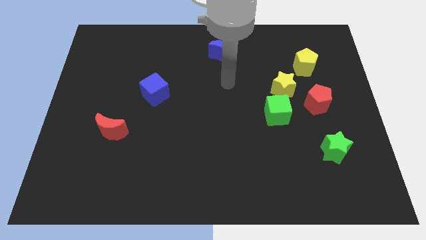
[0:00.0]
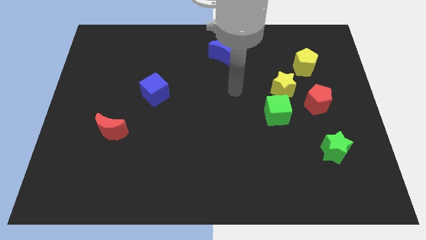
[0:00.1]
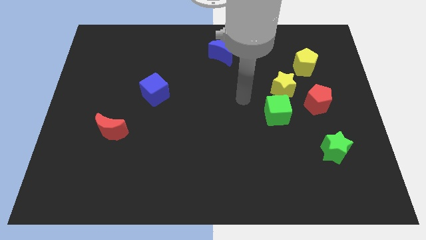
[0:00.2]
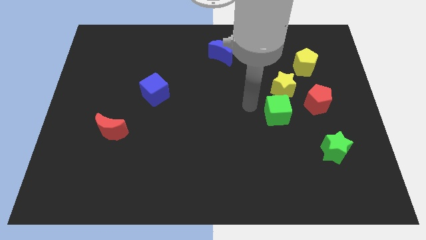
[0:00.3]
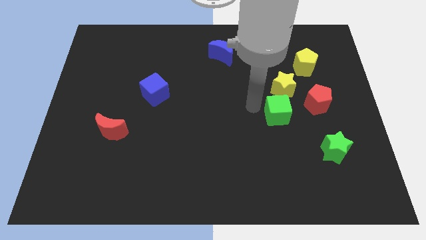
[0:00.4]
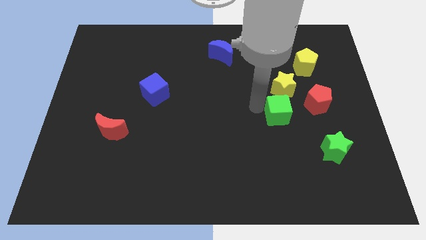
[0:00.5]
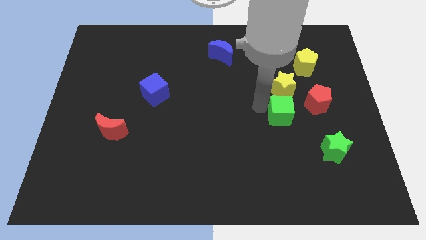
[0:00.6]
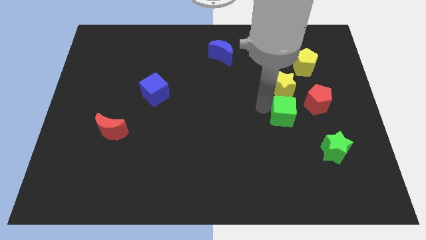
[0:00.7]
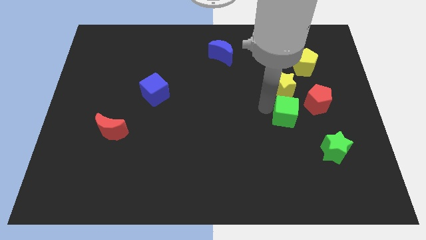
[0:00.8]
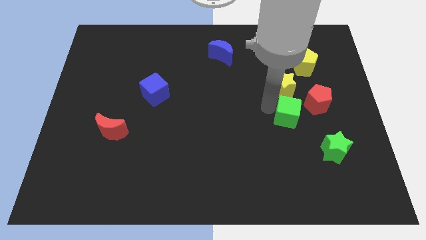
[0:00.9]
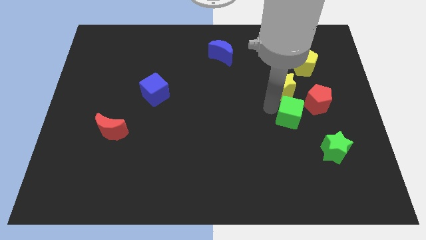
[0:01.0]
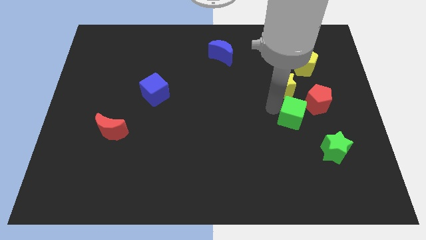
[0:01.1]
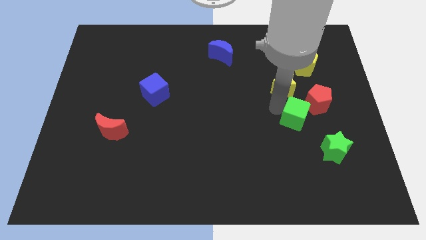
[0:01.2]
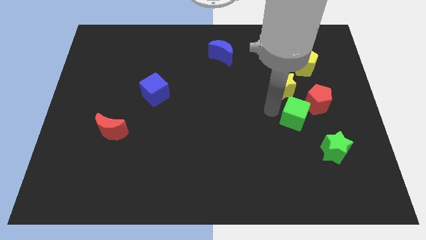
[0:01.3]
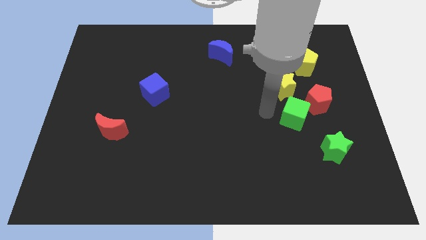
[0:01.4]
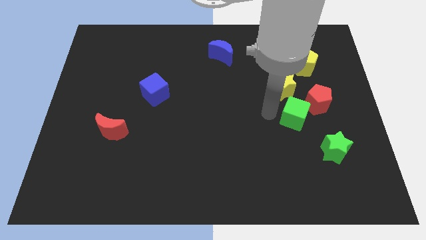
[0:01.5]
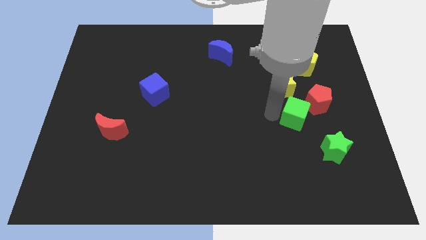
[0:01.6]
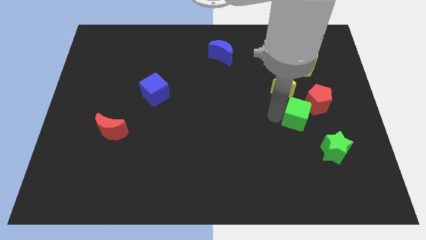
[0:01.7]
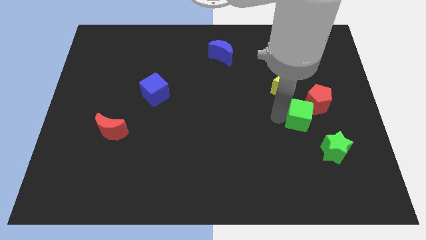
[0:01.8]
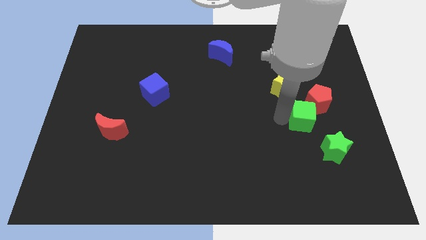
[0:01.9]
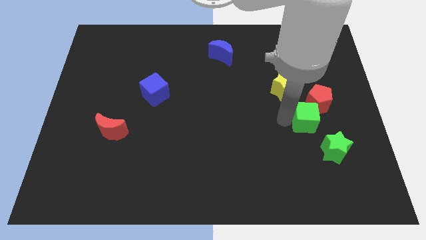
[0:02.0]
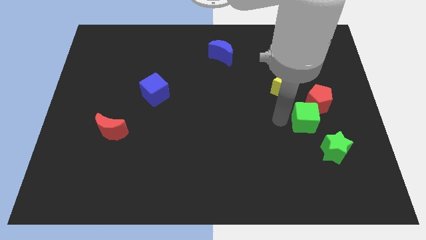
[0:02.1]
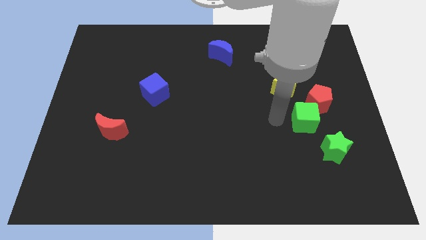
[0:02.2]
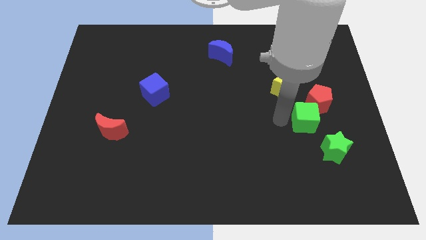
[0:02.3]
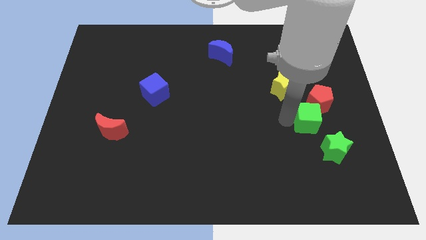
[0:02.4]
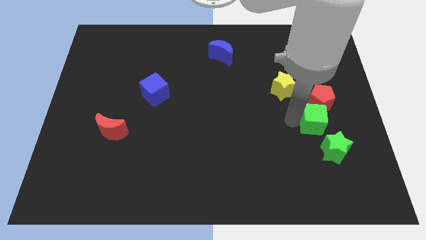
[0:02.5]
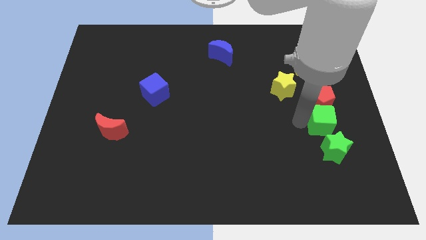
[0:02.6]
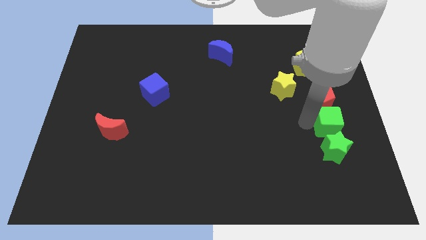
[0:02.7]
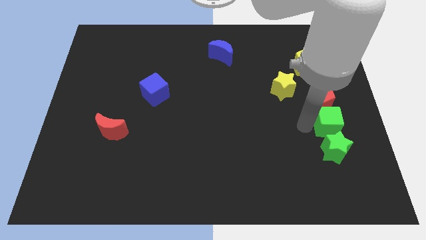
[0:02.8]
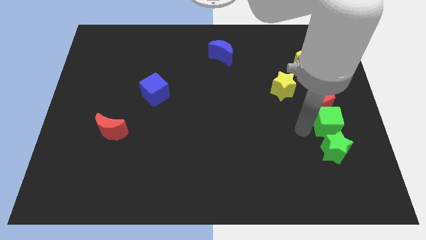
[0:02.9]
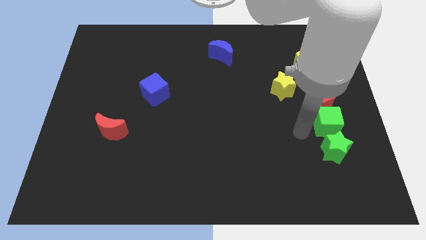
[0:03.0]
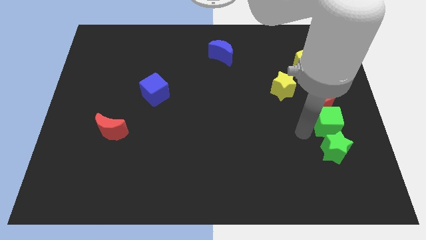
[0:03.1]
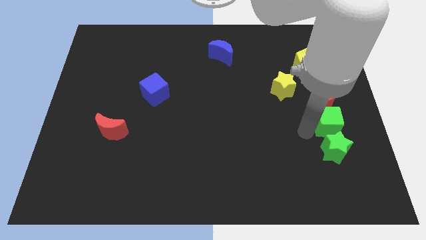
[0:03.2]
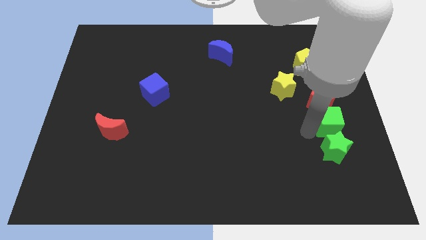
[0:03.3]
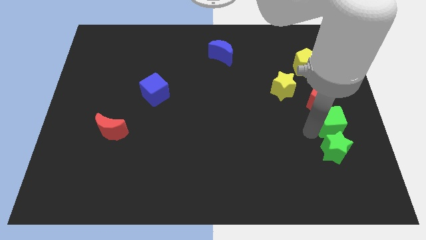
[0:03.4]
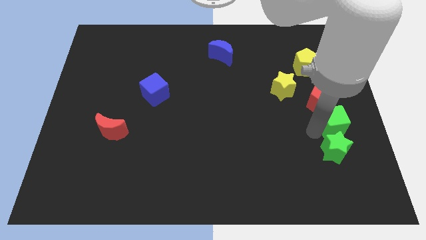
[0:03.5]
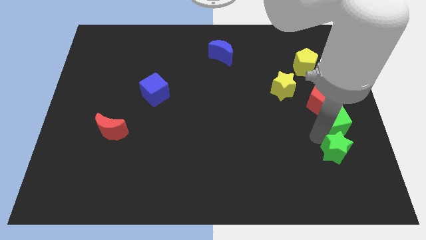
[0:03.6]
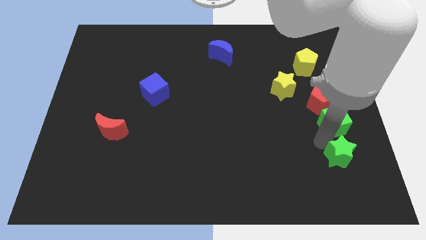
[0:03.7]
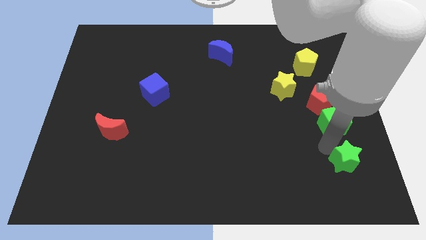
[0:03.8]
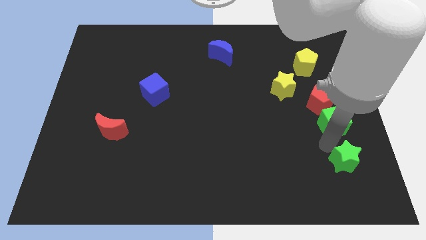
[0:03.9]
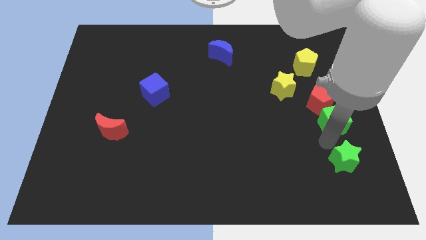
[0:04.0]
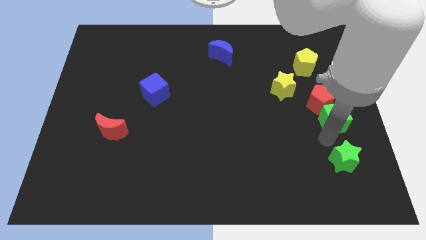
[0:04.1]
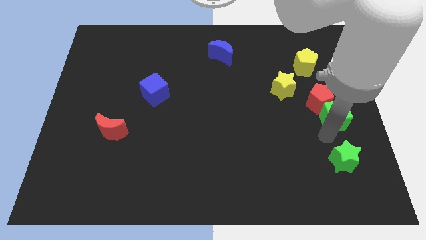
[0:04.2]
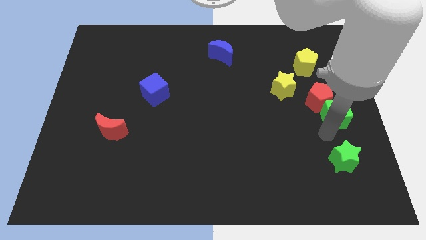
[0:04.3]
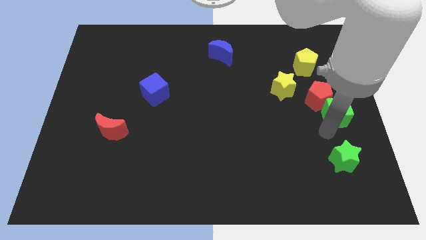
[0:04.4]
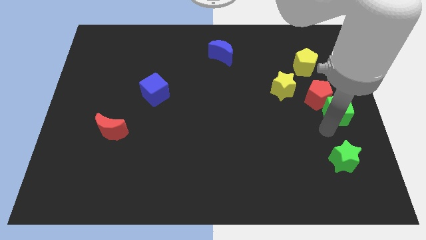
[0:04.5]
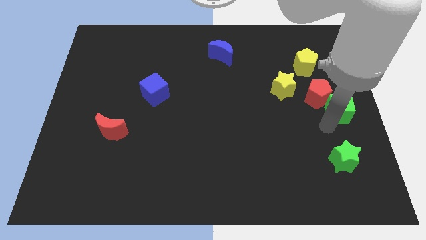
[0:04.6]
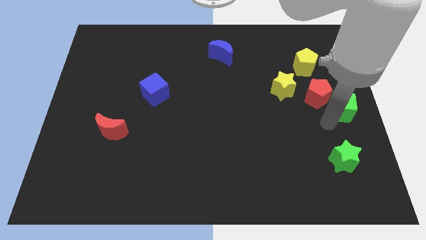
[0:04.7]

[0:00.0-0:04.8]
slightly push the green cube diagonally up and to the right

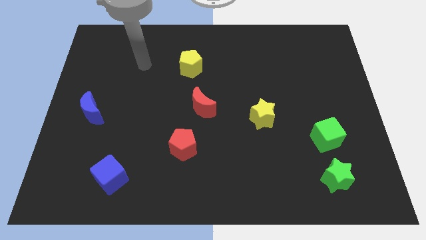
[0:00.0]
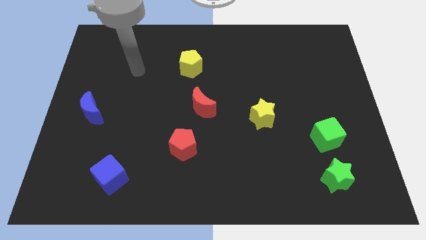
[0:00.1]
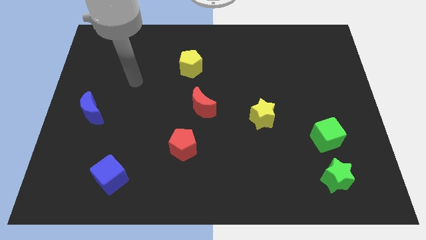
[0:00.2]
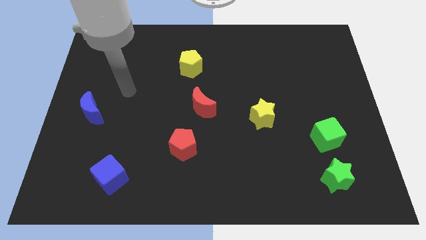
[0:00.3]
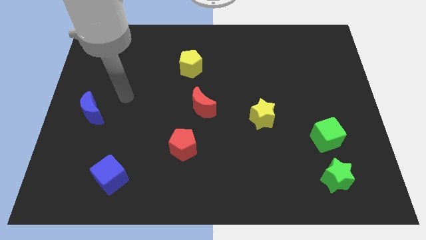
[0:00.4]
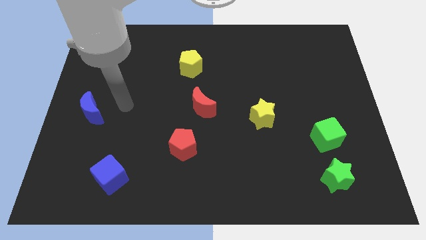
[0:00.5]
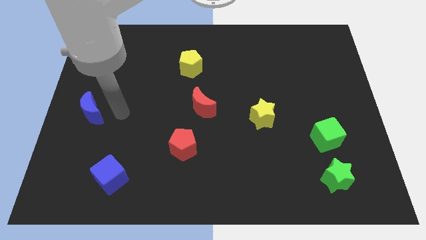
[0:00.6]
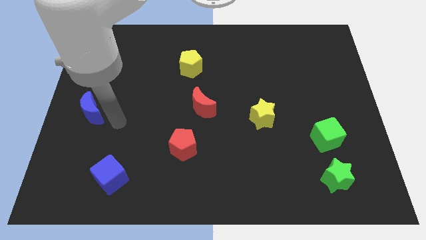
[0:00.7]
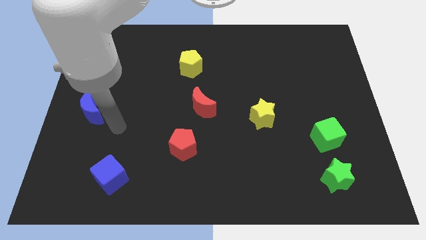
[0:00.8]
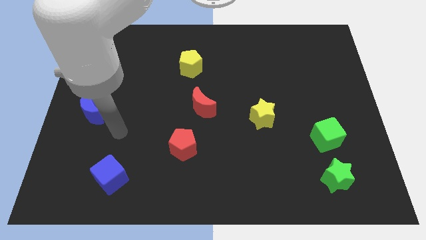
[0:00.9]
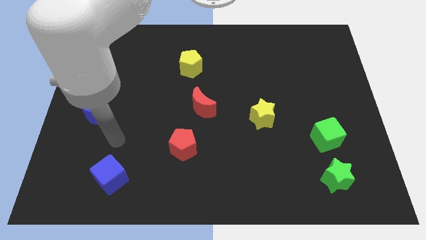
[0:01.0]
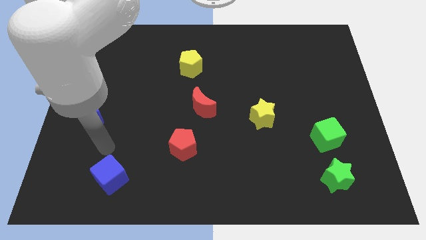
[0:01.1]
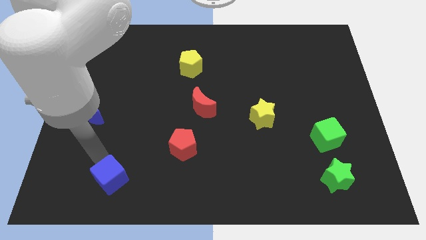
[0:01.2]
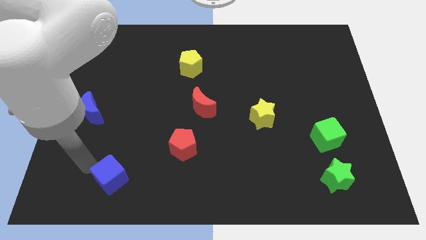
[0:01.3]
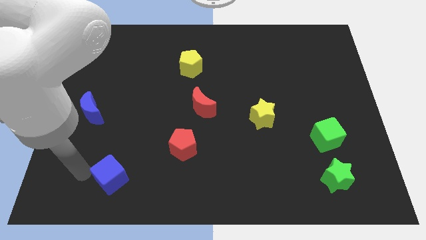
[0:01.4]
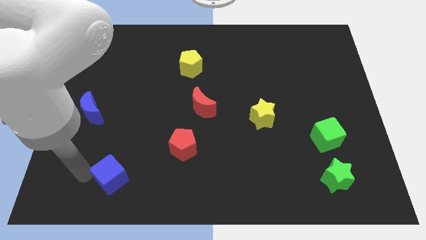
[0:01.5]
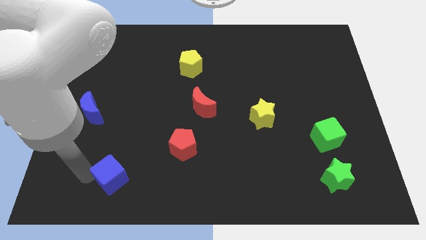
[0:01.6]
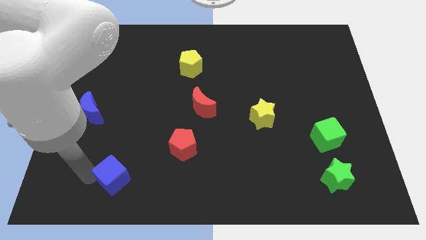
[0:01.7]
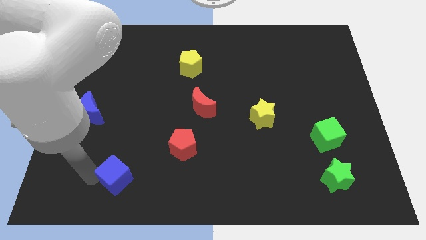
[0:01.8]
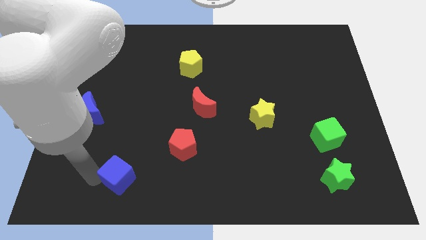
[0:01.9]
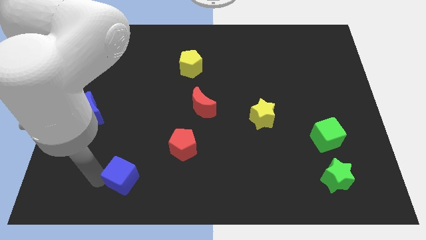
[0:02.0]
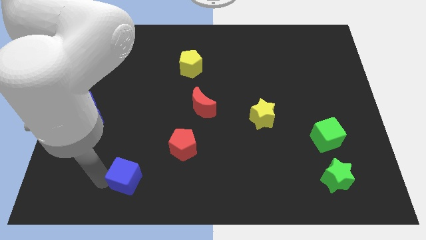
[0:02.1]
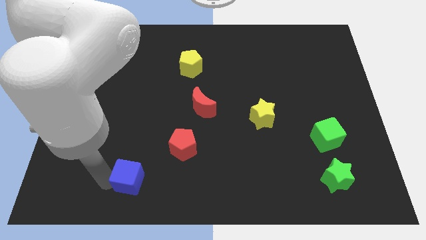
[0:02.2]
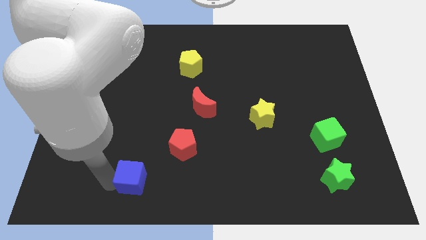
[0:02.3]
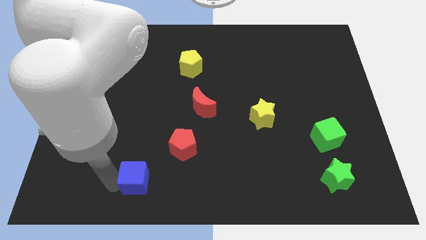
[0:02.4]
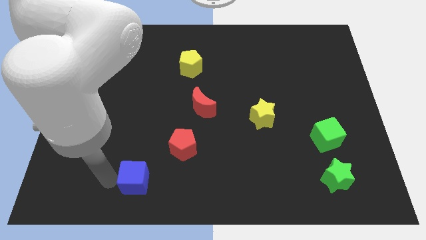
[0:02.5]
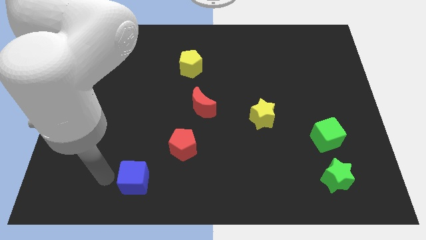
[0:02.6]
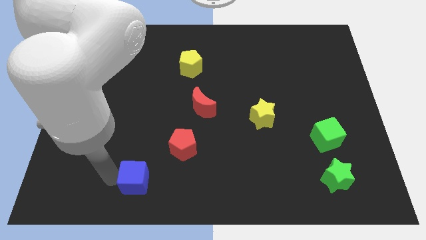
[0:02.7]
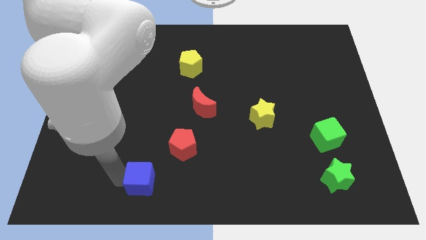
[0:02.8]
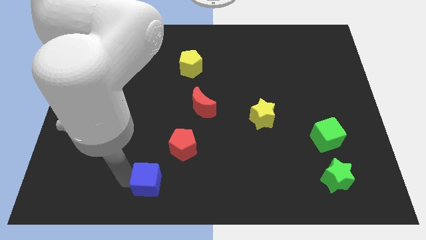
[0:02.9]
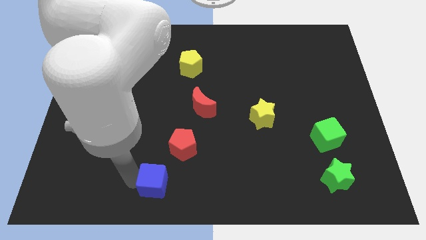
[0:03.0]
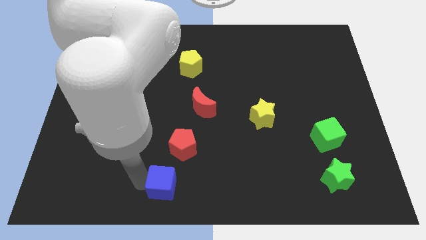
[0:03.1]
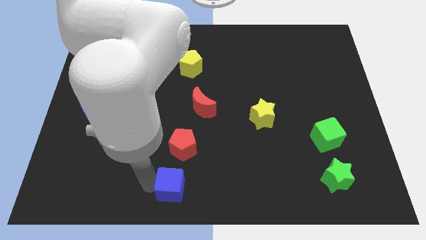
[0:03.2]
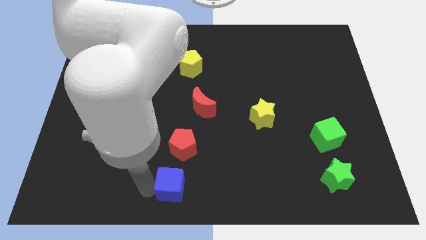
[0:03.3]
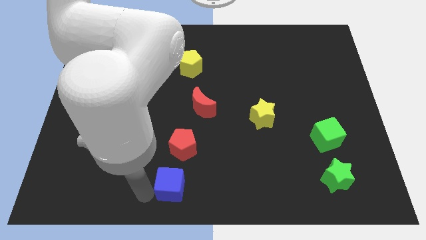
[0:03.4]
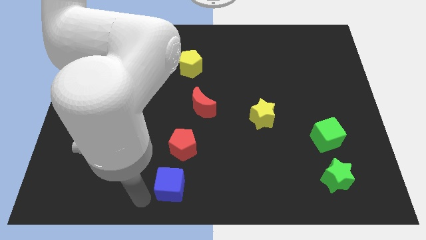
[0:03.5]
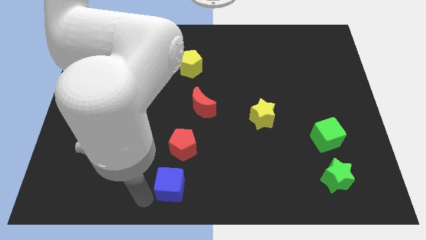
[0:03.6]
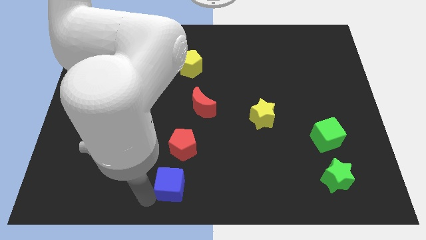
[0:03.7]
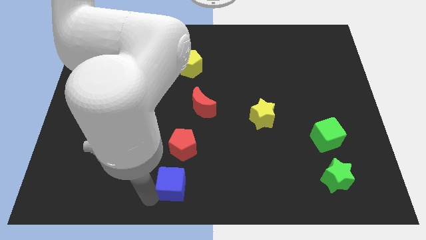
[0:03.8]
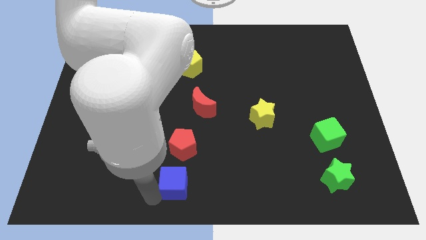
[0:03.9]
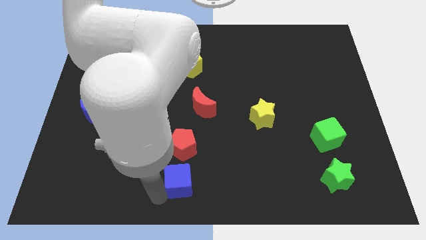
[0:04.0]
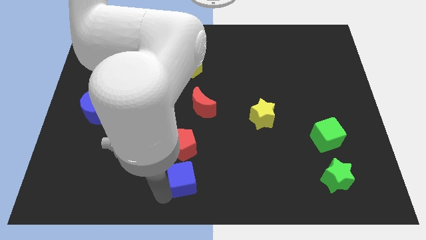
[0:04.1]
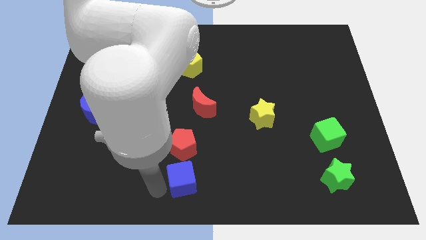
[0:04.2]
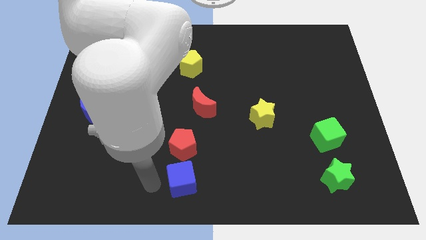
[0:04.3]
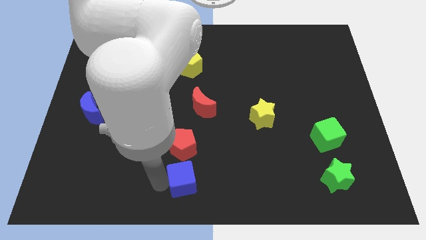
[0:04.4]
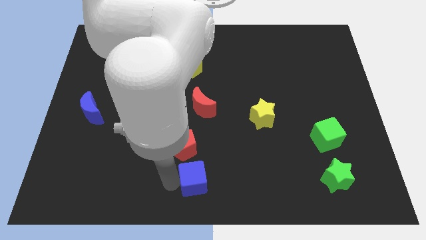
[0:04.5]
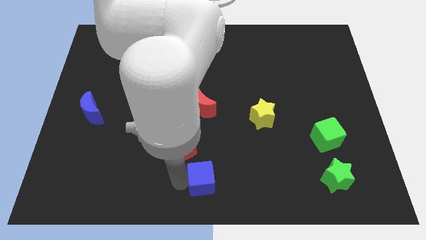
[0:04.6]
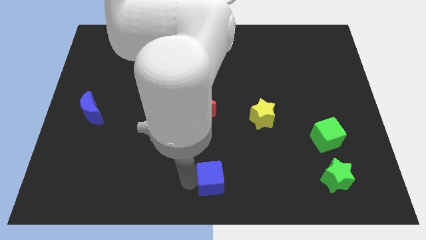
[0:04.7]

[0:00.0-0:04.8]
move the blue cube right
